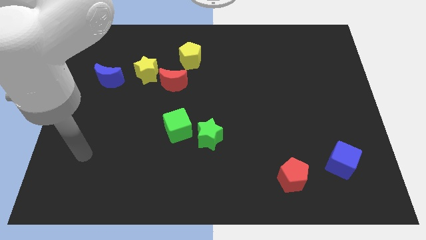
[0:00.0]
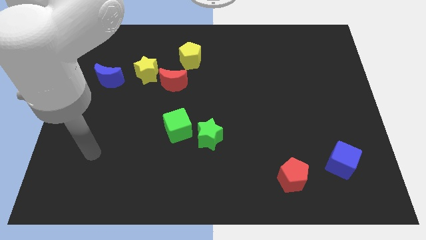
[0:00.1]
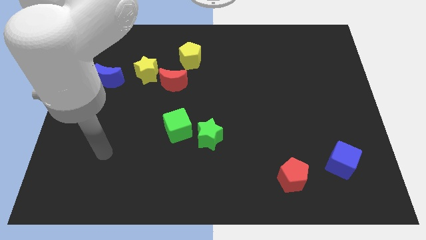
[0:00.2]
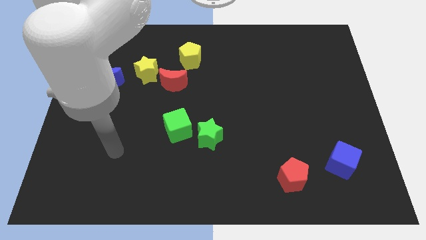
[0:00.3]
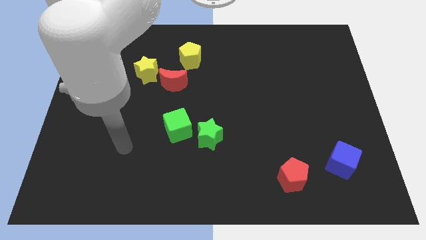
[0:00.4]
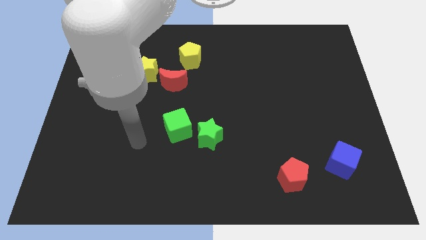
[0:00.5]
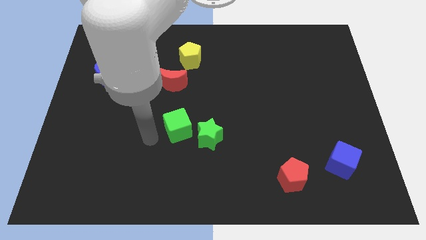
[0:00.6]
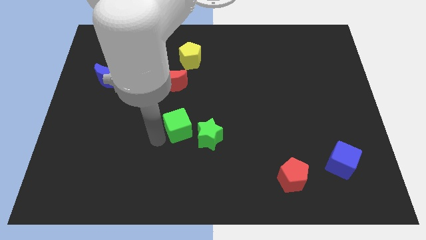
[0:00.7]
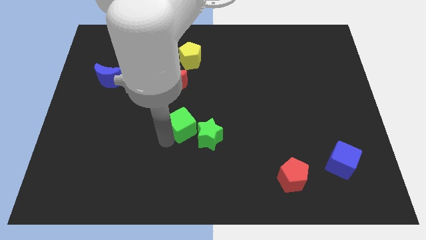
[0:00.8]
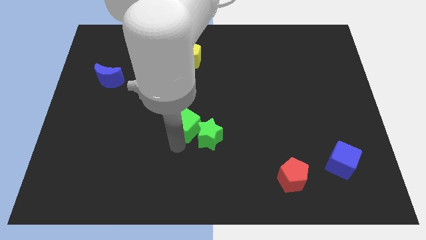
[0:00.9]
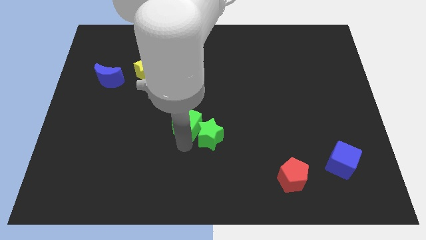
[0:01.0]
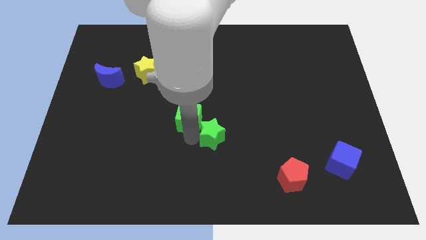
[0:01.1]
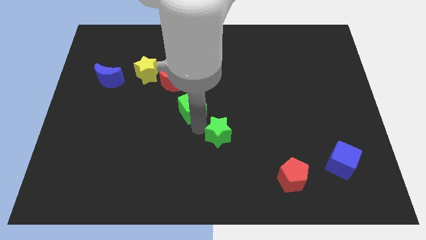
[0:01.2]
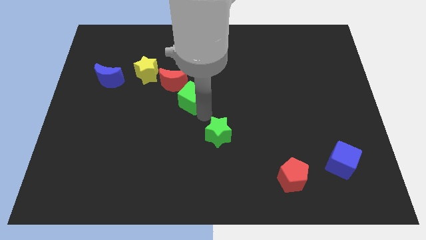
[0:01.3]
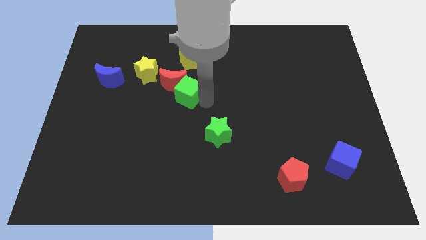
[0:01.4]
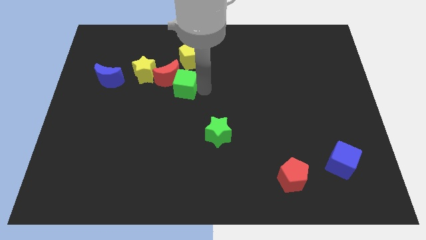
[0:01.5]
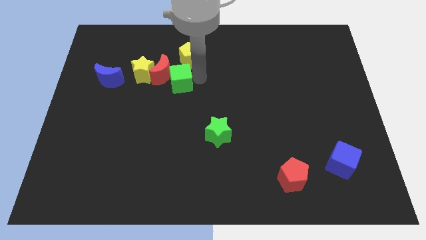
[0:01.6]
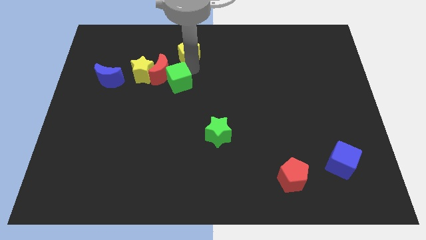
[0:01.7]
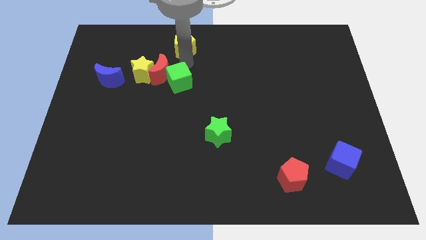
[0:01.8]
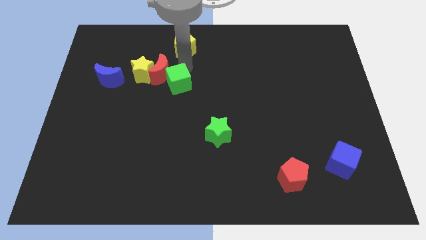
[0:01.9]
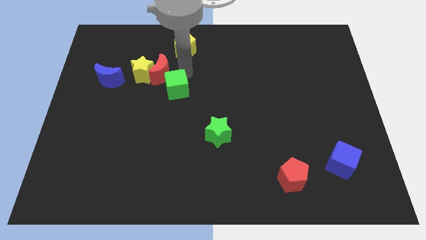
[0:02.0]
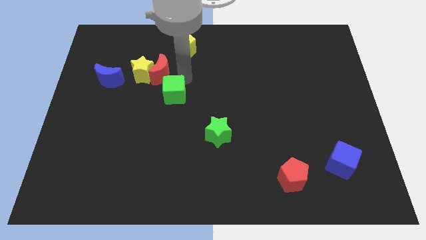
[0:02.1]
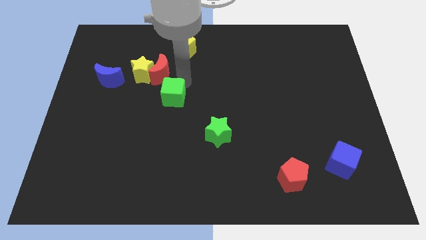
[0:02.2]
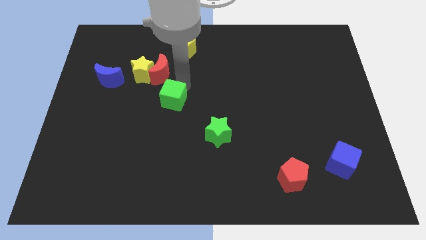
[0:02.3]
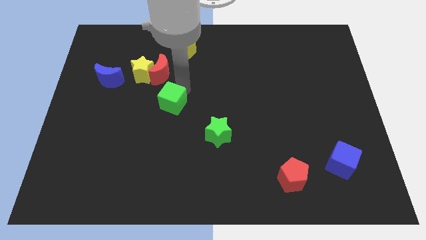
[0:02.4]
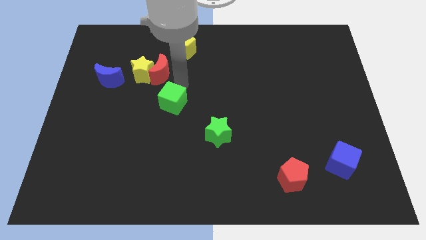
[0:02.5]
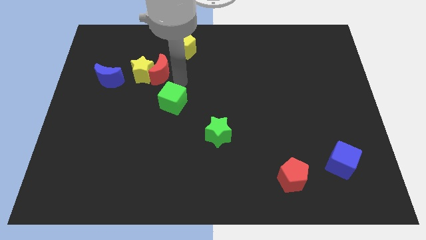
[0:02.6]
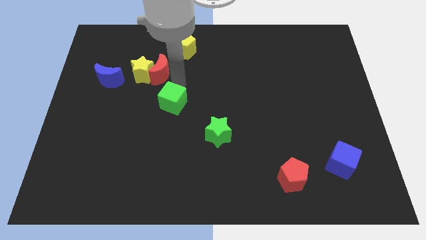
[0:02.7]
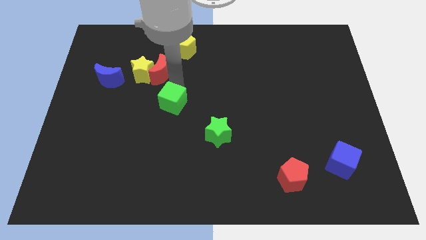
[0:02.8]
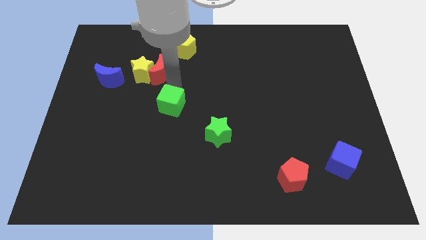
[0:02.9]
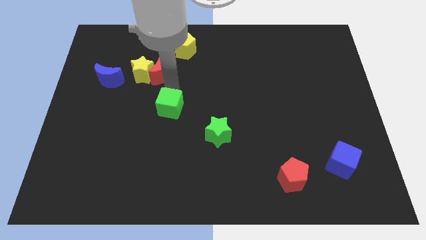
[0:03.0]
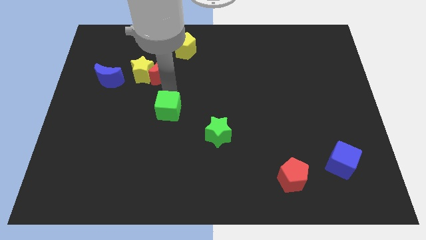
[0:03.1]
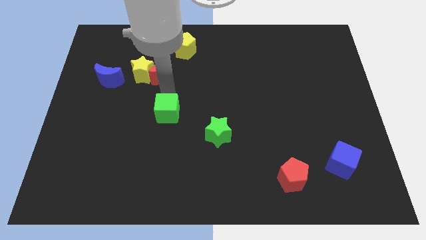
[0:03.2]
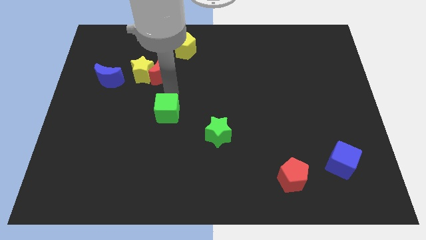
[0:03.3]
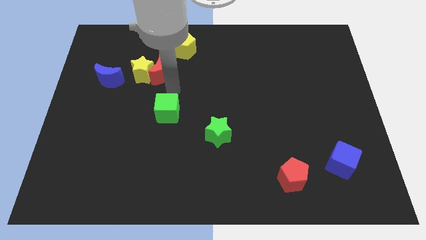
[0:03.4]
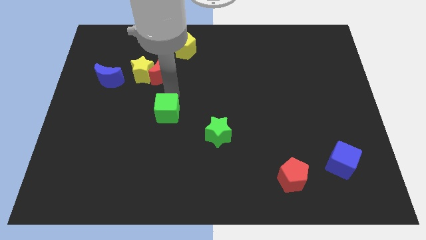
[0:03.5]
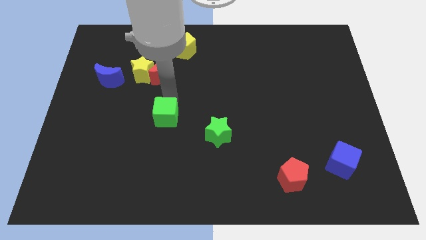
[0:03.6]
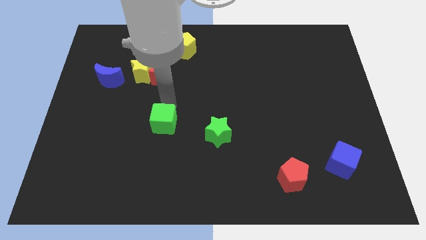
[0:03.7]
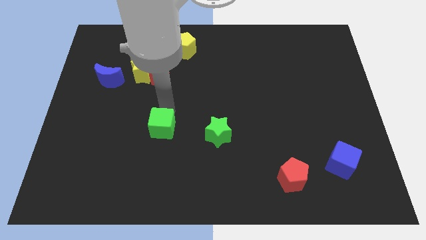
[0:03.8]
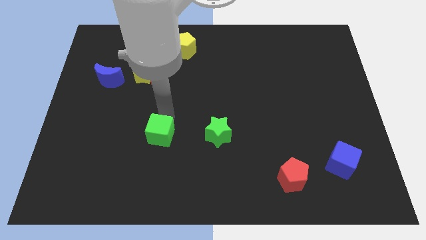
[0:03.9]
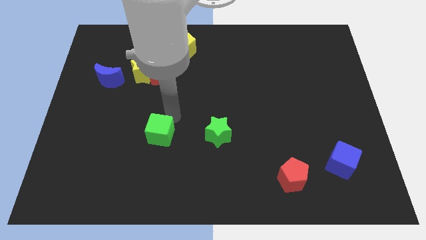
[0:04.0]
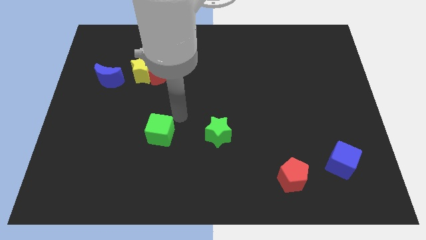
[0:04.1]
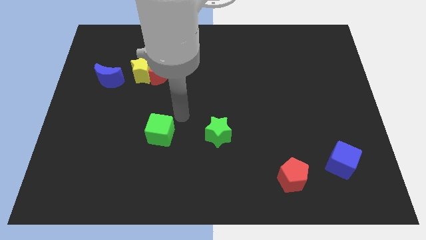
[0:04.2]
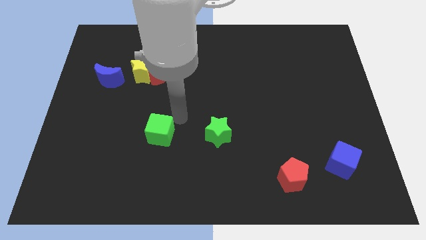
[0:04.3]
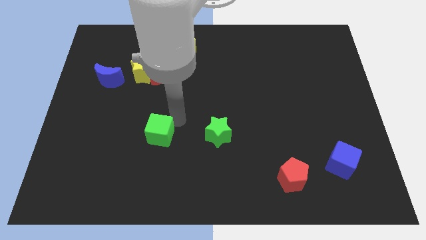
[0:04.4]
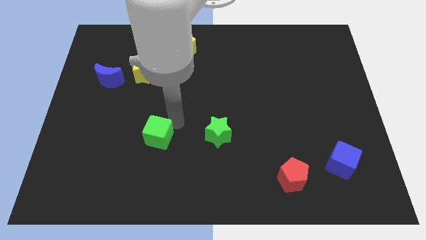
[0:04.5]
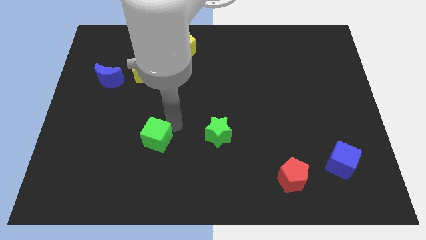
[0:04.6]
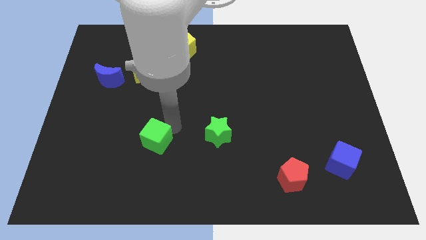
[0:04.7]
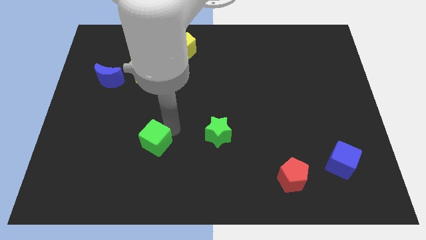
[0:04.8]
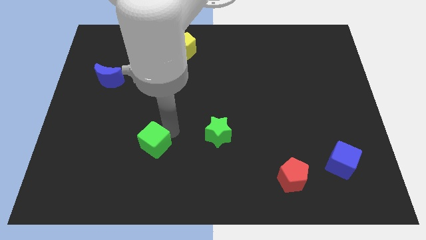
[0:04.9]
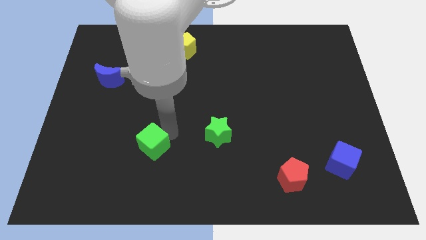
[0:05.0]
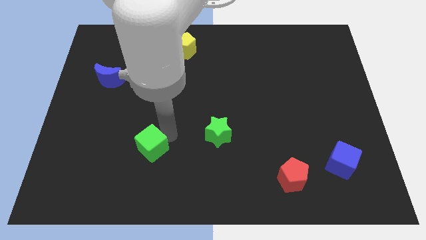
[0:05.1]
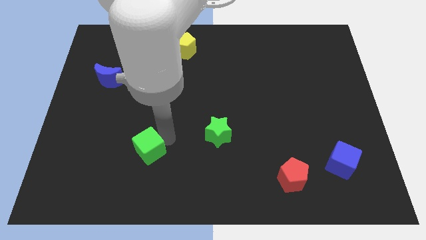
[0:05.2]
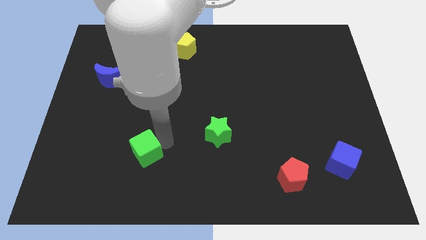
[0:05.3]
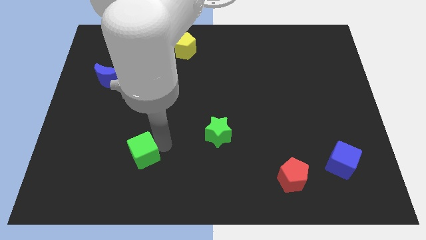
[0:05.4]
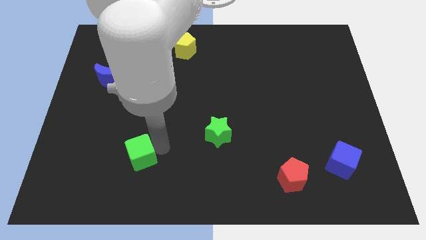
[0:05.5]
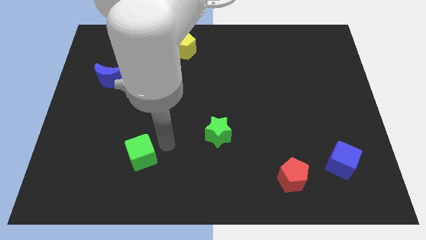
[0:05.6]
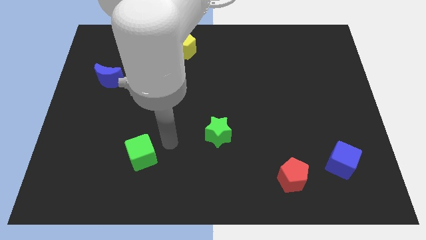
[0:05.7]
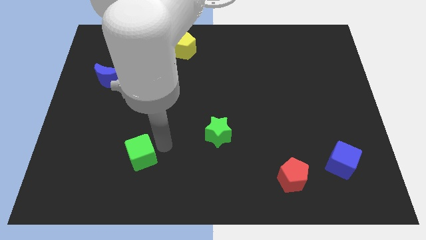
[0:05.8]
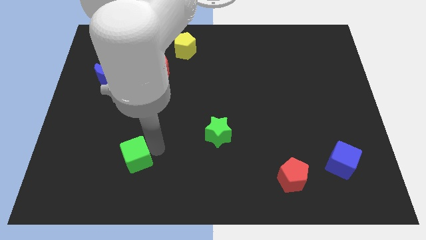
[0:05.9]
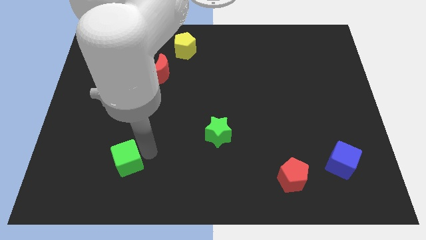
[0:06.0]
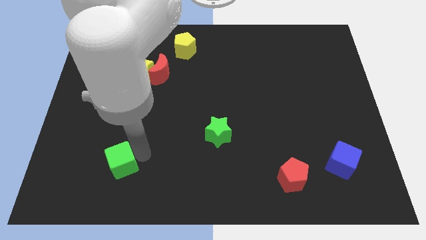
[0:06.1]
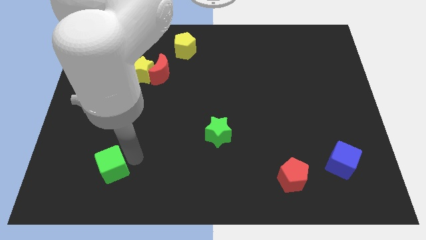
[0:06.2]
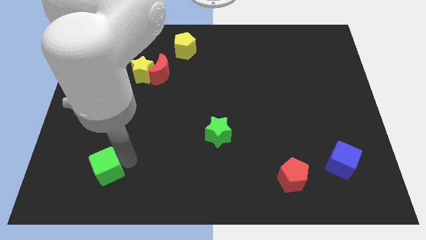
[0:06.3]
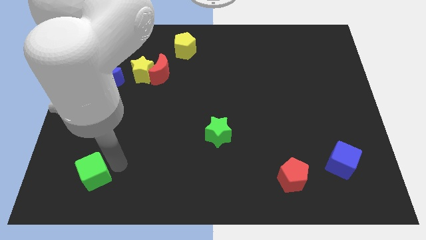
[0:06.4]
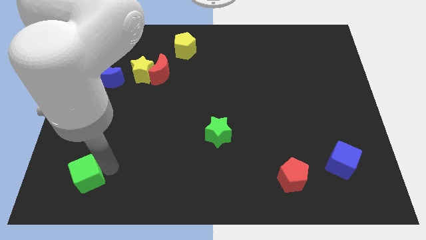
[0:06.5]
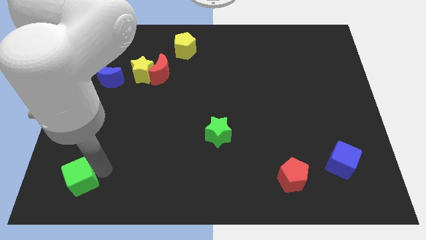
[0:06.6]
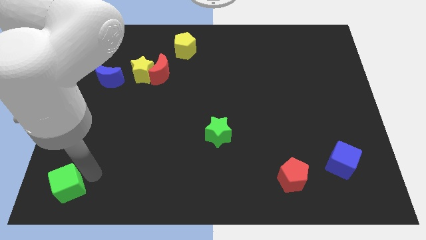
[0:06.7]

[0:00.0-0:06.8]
slide the green cube to the lower left corner

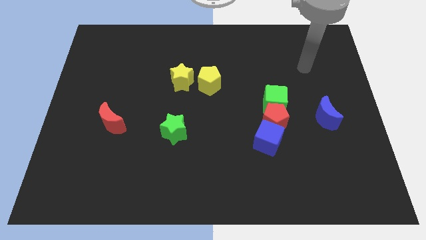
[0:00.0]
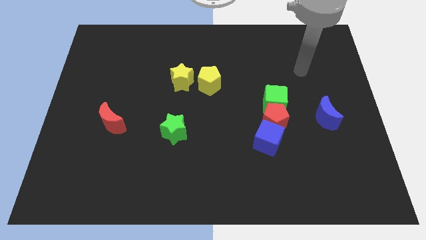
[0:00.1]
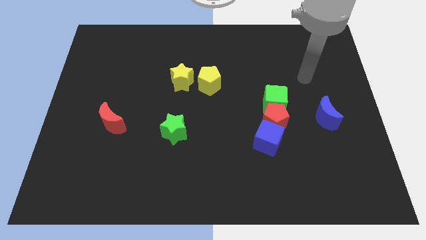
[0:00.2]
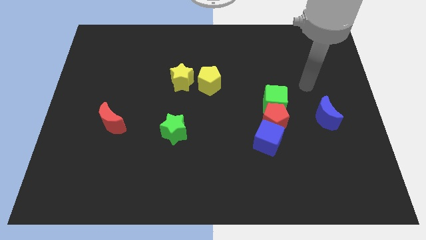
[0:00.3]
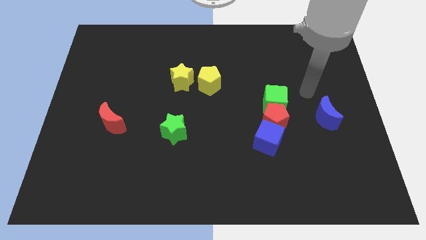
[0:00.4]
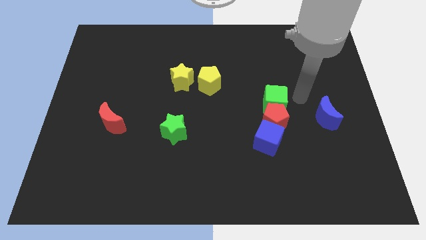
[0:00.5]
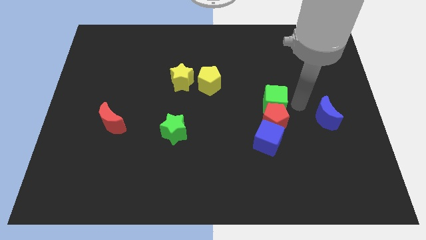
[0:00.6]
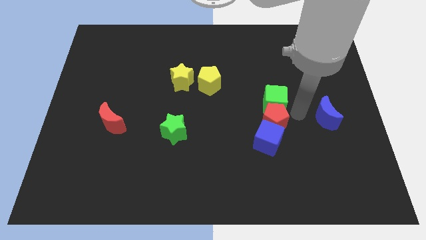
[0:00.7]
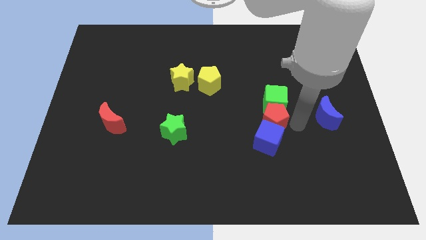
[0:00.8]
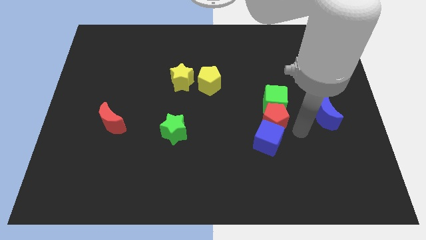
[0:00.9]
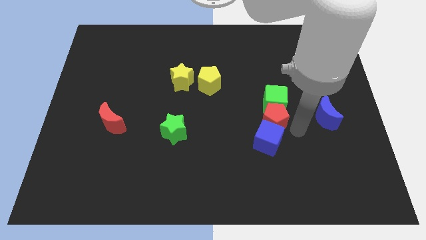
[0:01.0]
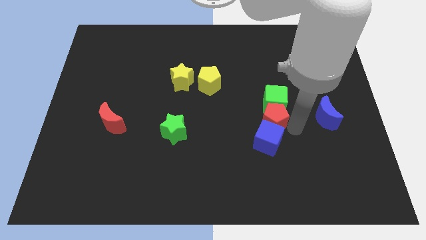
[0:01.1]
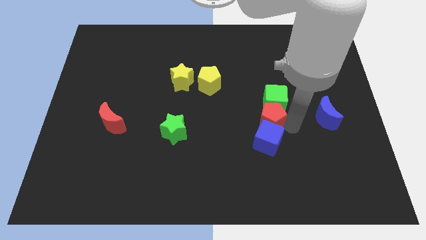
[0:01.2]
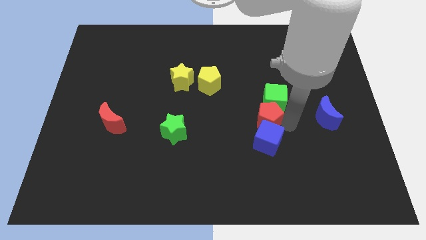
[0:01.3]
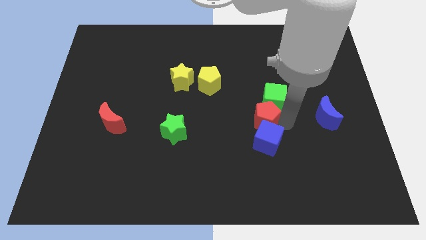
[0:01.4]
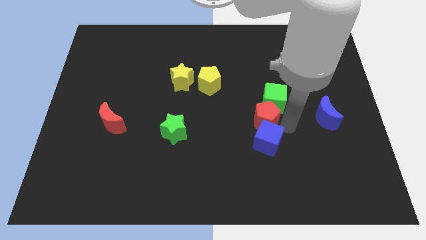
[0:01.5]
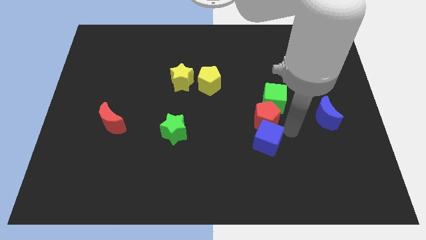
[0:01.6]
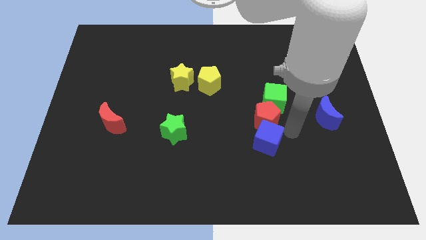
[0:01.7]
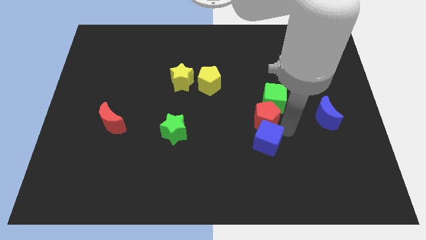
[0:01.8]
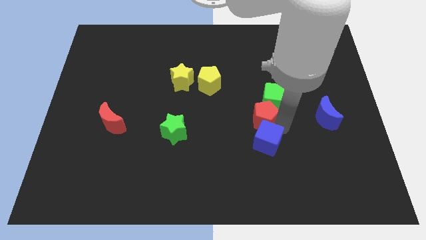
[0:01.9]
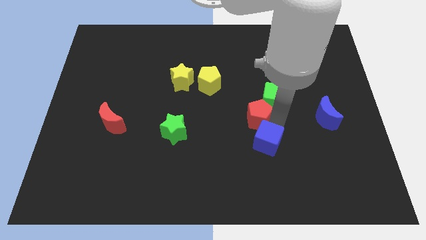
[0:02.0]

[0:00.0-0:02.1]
push the red pentagon to the center of the board
